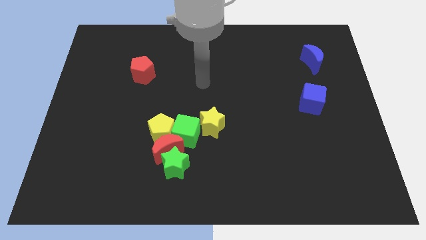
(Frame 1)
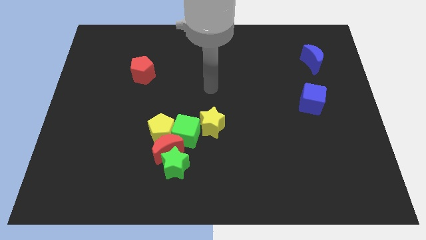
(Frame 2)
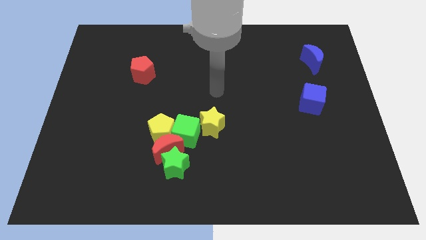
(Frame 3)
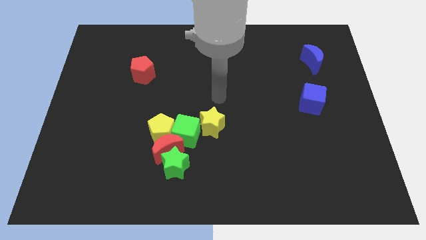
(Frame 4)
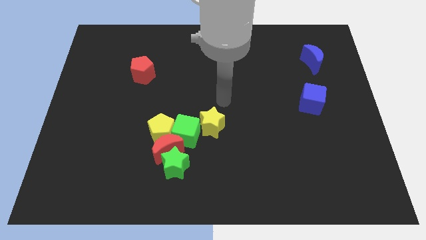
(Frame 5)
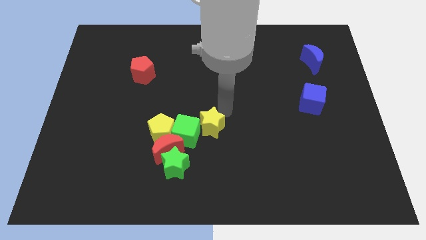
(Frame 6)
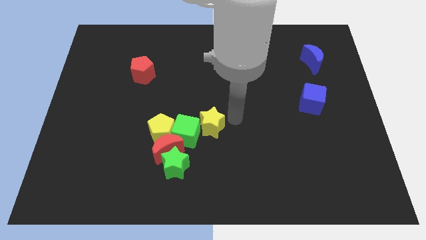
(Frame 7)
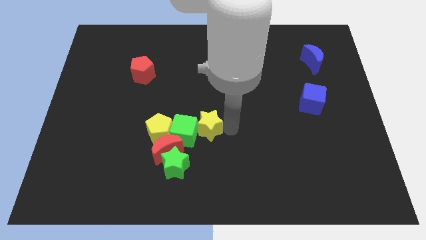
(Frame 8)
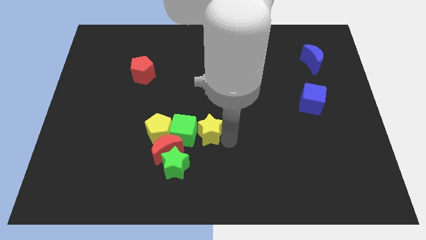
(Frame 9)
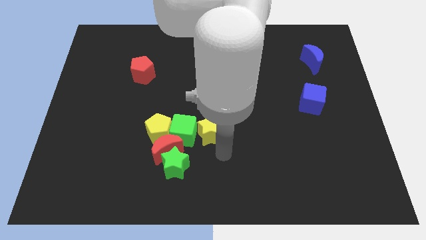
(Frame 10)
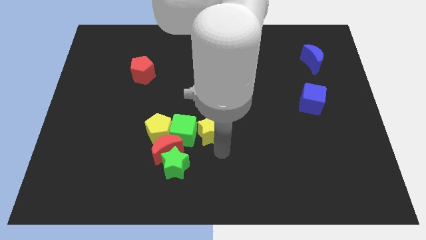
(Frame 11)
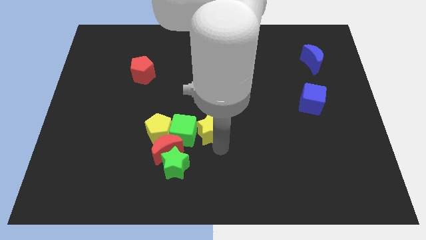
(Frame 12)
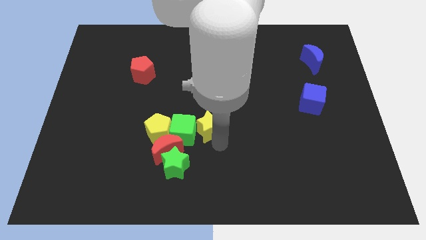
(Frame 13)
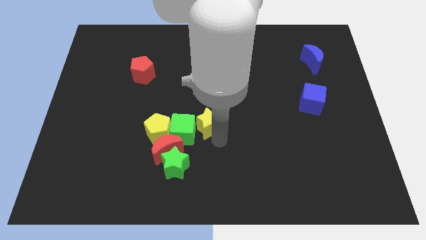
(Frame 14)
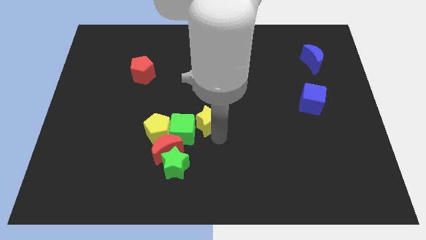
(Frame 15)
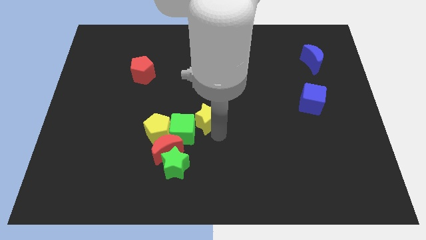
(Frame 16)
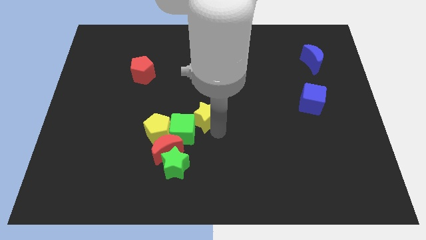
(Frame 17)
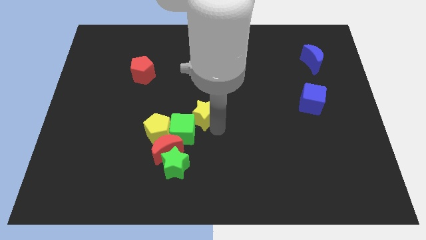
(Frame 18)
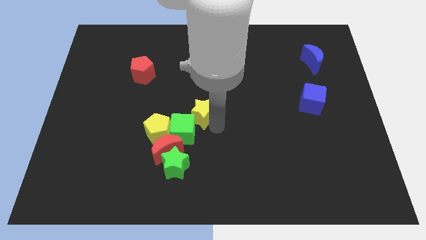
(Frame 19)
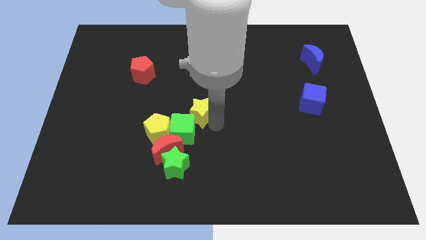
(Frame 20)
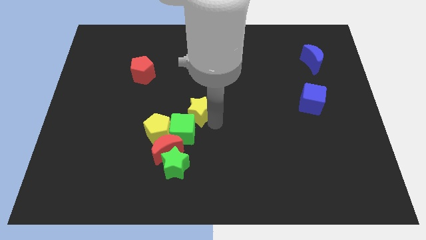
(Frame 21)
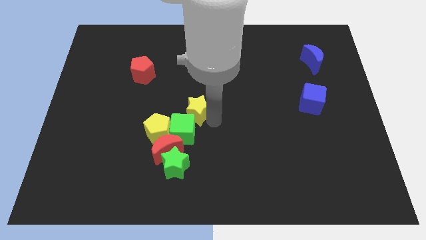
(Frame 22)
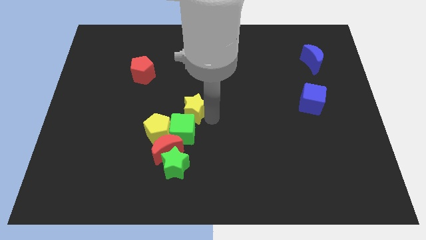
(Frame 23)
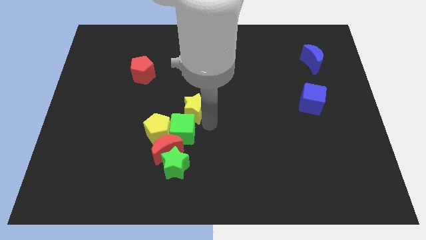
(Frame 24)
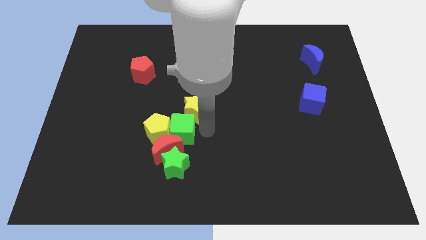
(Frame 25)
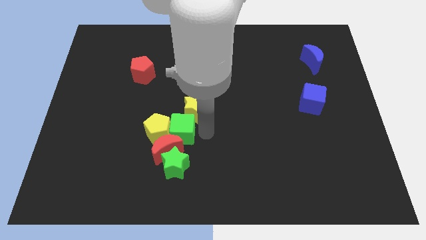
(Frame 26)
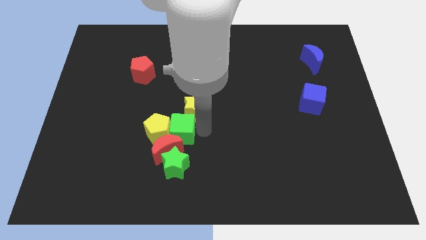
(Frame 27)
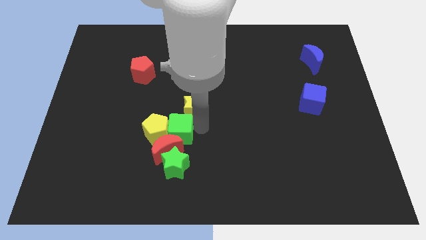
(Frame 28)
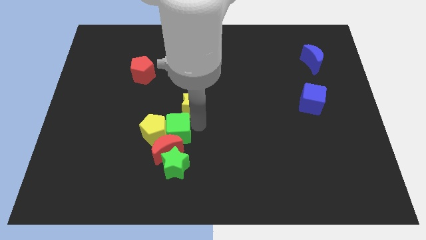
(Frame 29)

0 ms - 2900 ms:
push the yellow star upwards and to the left diagonally a little

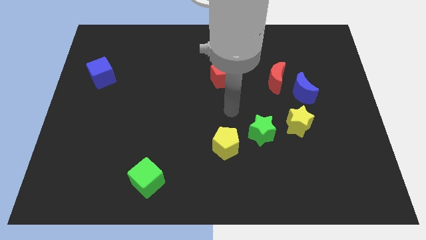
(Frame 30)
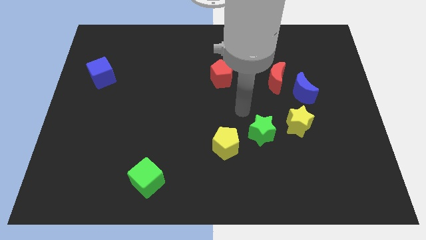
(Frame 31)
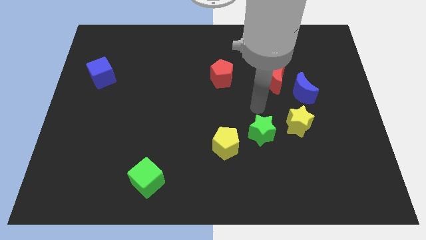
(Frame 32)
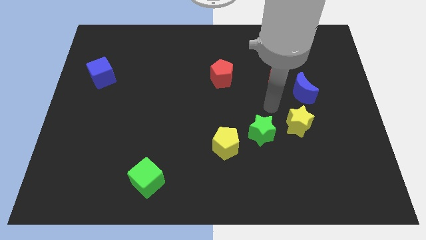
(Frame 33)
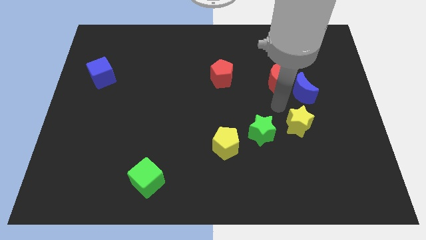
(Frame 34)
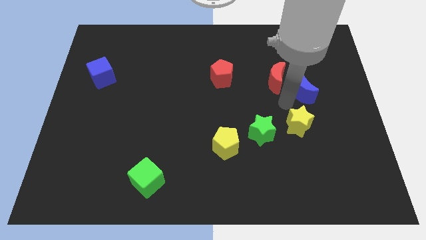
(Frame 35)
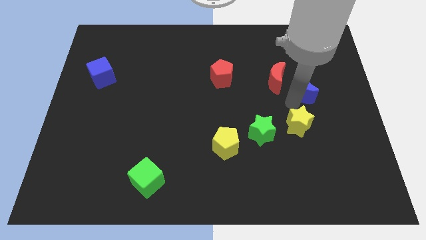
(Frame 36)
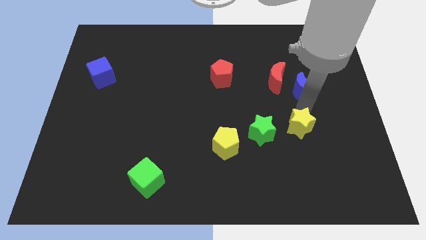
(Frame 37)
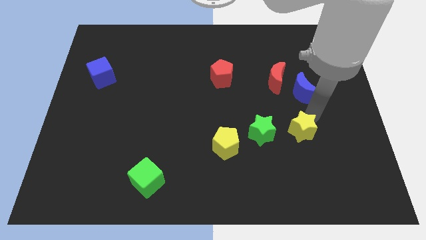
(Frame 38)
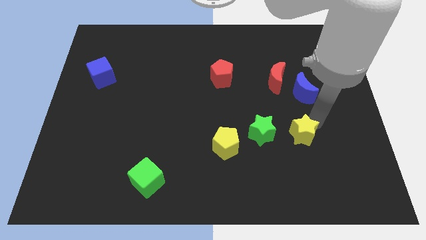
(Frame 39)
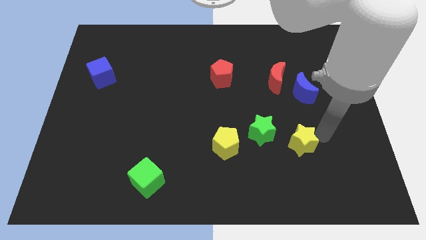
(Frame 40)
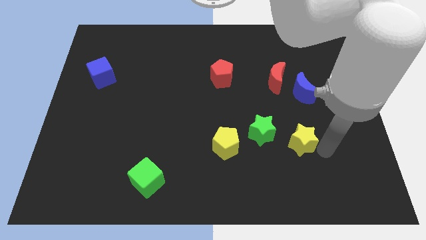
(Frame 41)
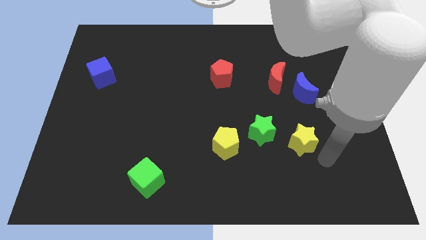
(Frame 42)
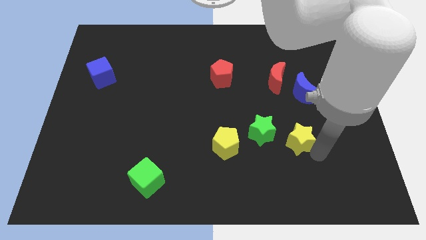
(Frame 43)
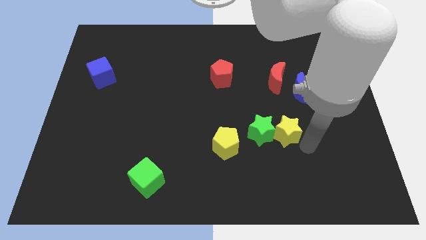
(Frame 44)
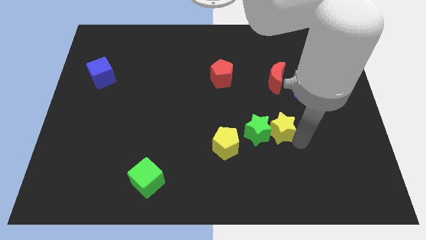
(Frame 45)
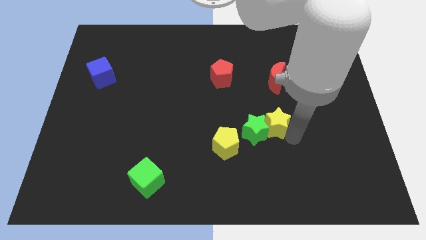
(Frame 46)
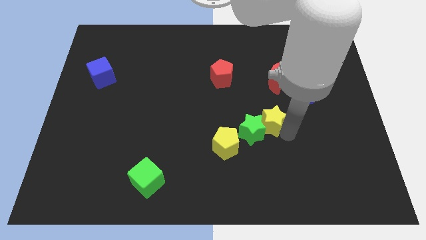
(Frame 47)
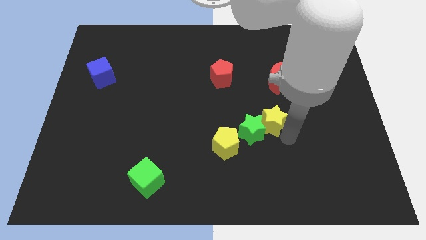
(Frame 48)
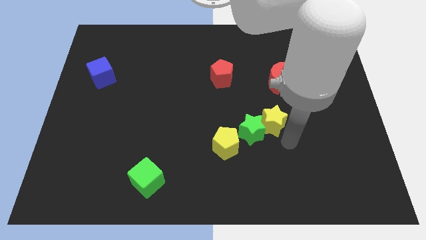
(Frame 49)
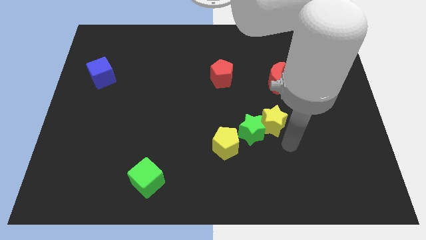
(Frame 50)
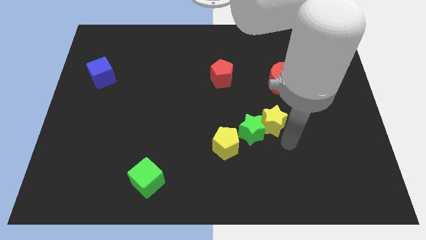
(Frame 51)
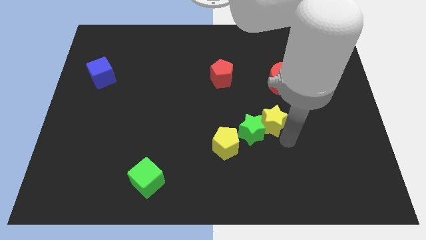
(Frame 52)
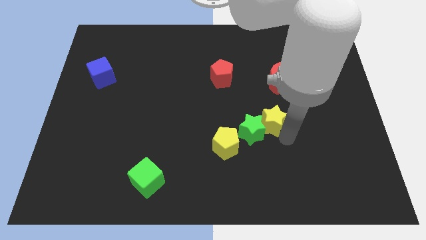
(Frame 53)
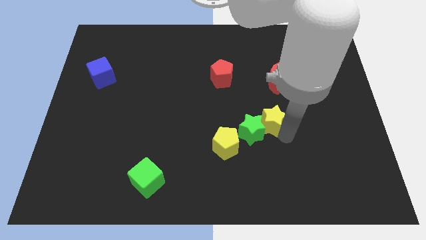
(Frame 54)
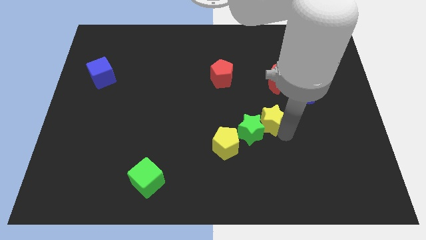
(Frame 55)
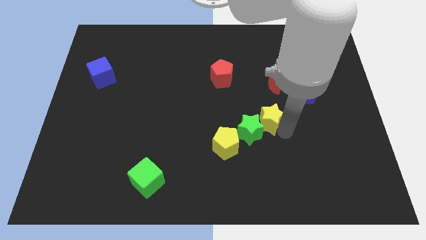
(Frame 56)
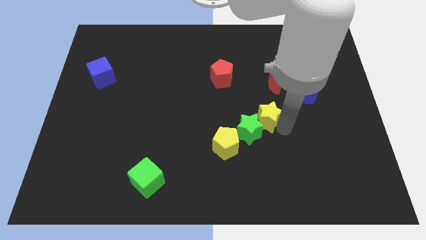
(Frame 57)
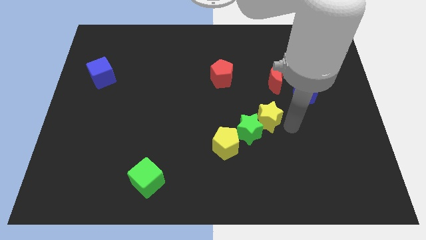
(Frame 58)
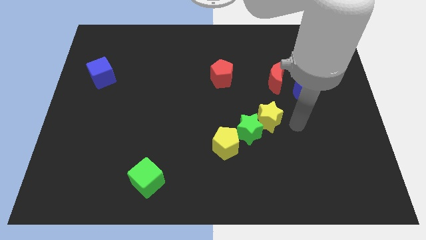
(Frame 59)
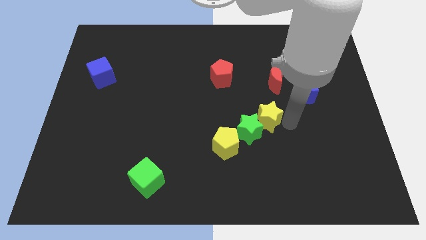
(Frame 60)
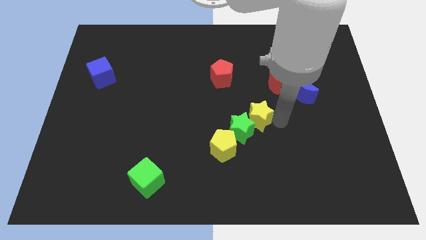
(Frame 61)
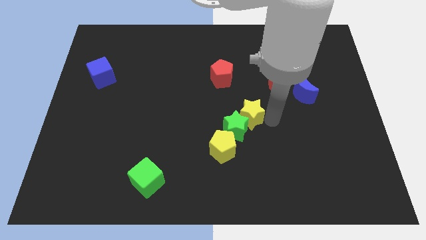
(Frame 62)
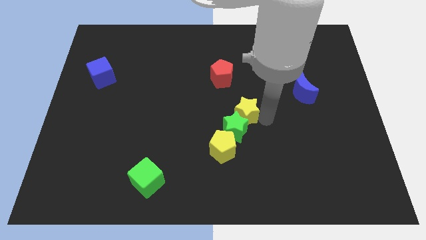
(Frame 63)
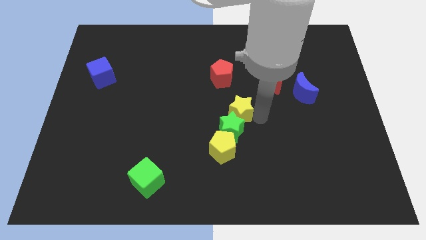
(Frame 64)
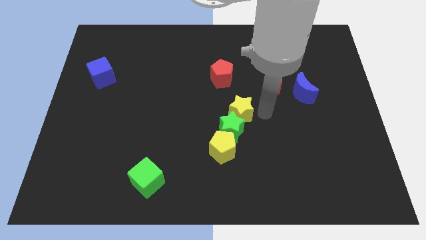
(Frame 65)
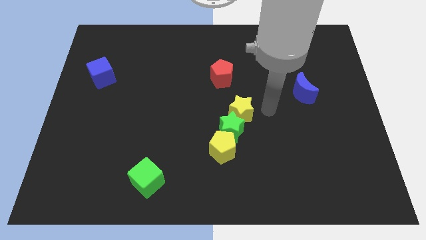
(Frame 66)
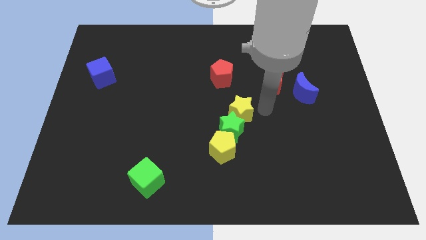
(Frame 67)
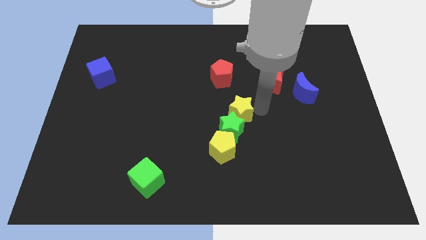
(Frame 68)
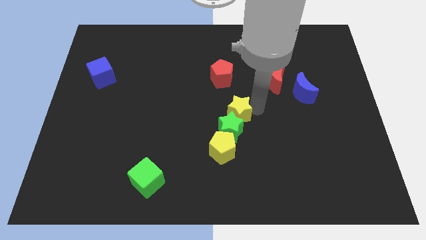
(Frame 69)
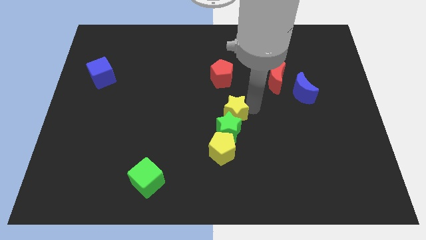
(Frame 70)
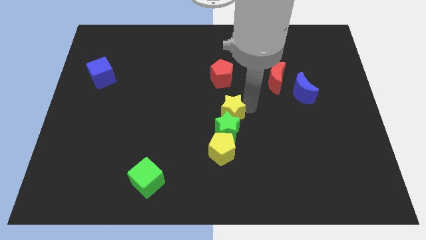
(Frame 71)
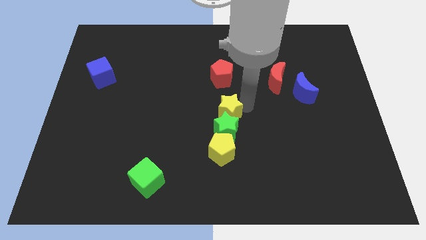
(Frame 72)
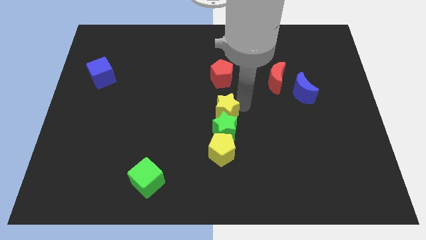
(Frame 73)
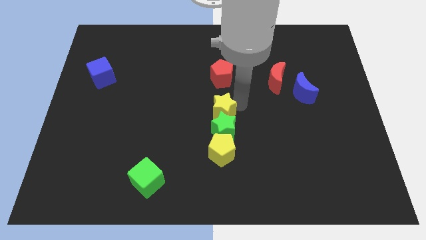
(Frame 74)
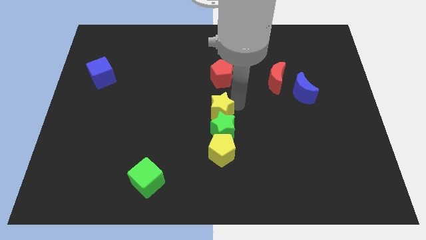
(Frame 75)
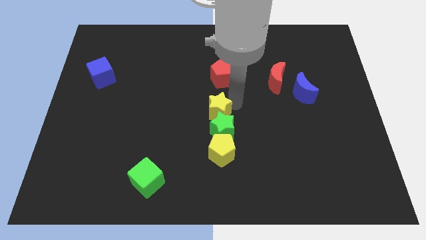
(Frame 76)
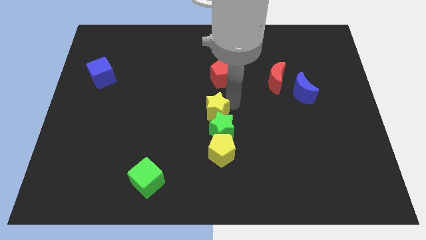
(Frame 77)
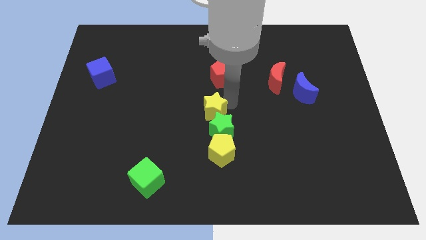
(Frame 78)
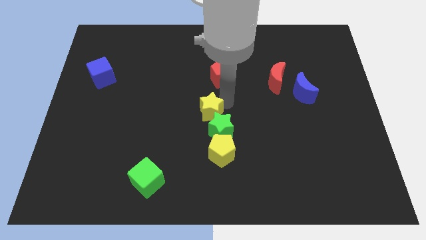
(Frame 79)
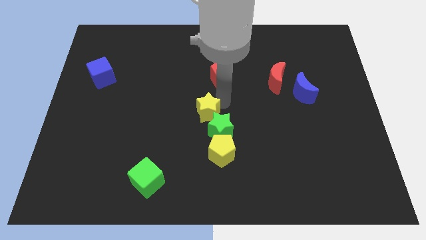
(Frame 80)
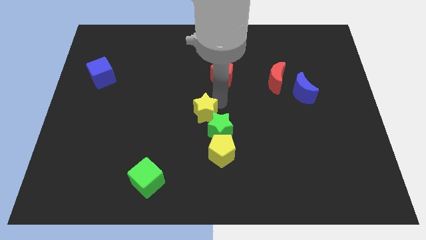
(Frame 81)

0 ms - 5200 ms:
push the yellow star left
